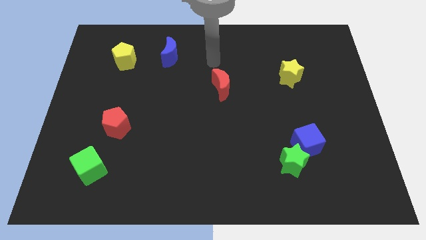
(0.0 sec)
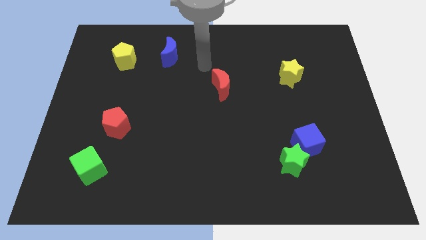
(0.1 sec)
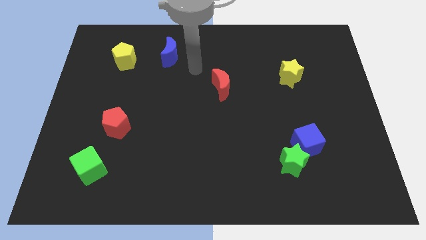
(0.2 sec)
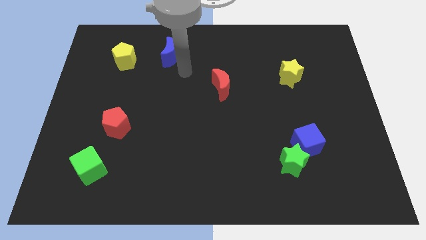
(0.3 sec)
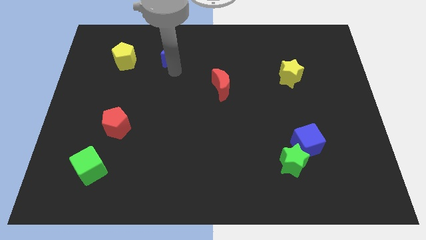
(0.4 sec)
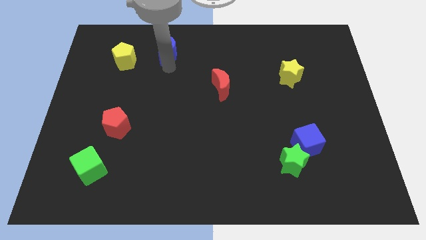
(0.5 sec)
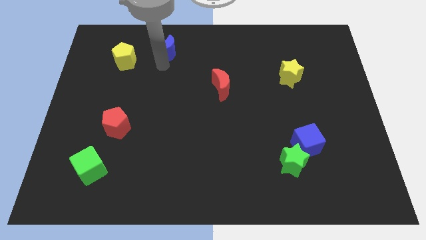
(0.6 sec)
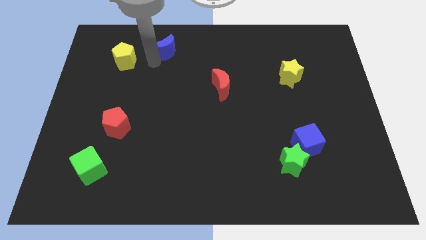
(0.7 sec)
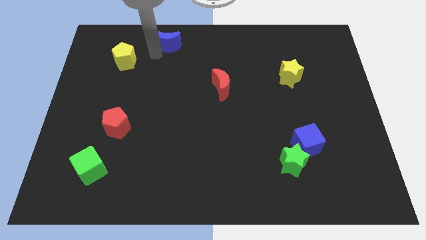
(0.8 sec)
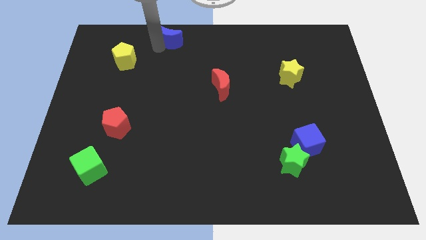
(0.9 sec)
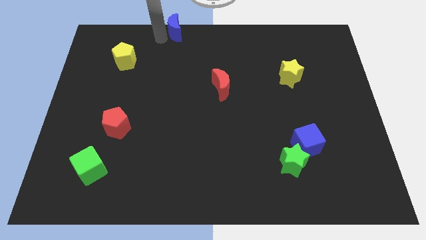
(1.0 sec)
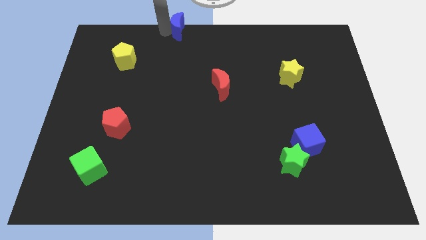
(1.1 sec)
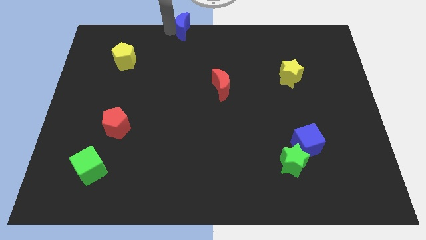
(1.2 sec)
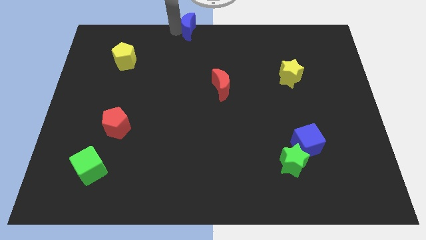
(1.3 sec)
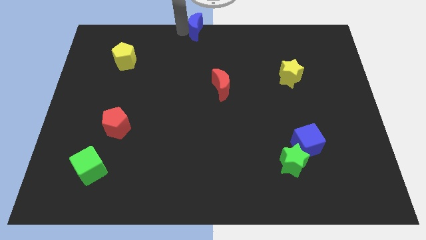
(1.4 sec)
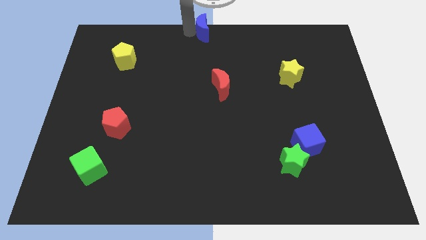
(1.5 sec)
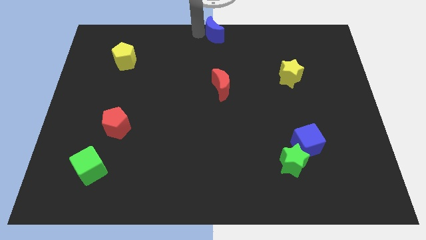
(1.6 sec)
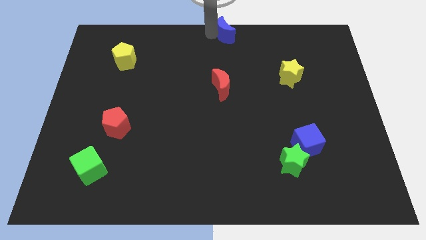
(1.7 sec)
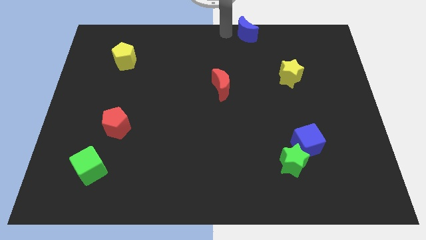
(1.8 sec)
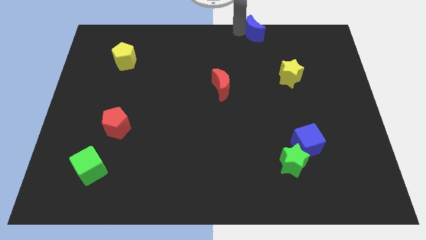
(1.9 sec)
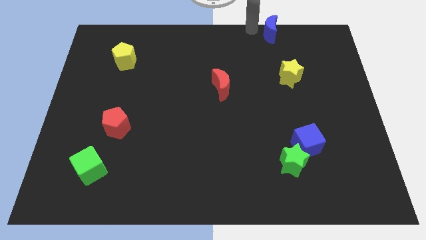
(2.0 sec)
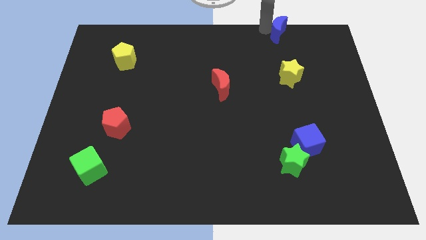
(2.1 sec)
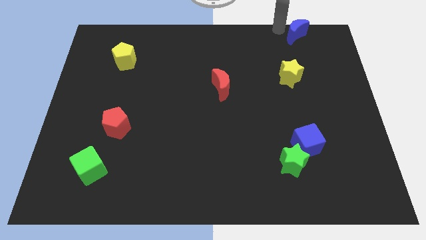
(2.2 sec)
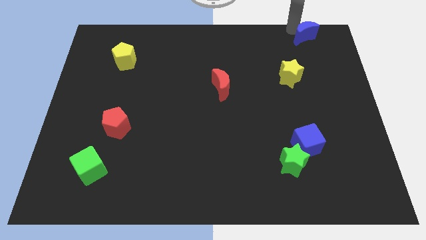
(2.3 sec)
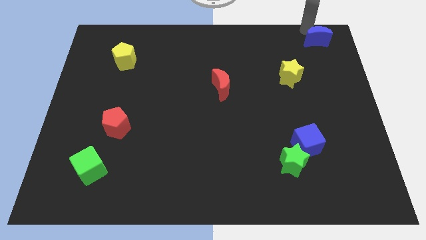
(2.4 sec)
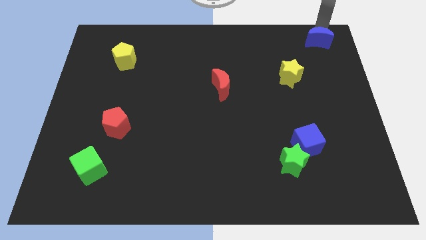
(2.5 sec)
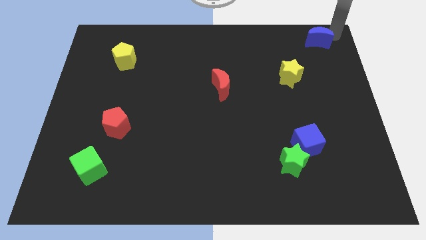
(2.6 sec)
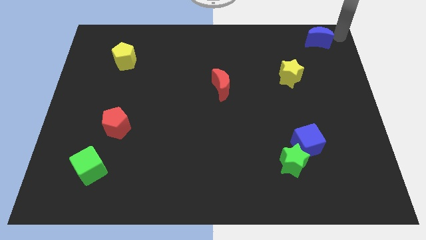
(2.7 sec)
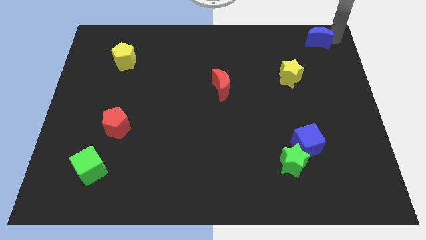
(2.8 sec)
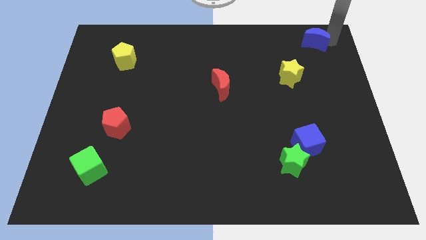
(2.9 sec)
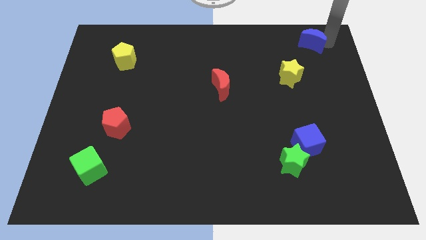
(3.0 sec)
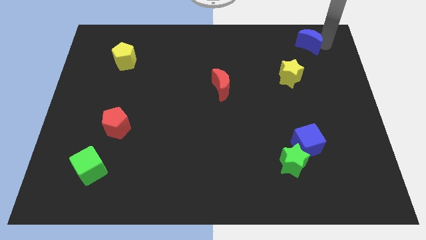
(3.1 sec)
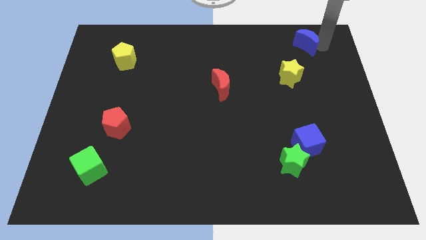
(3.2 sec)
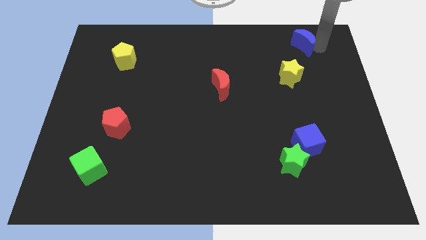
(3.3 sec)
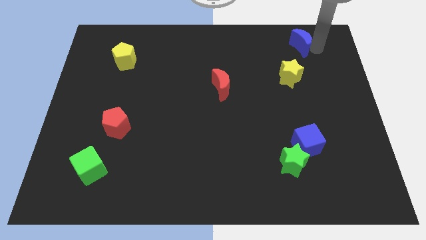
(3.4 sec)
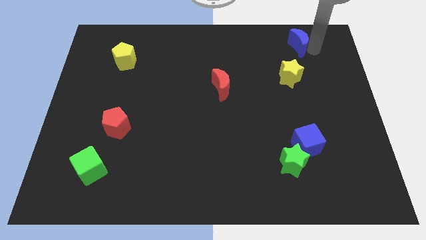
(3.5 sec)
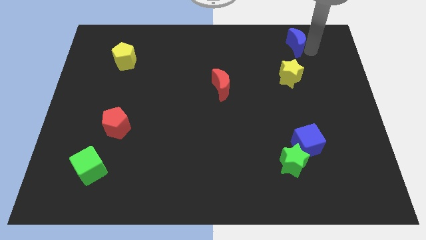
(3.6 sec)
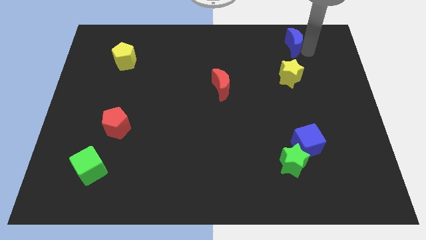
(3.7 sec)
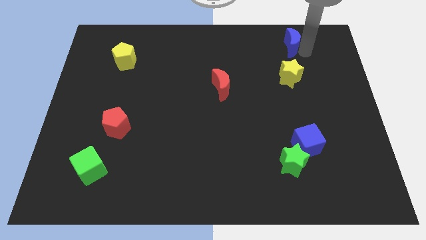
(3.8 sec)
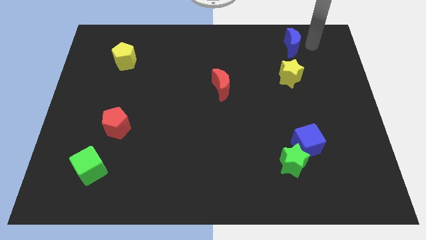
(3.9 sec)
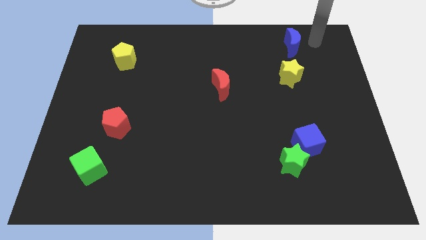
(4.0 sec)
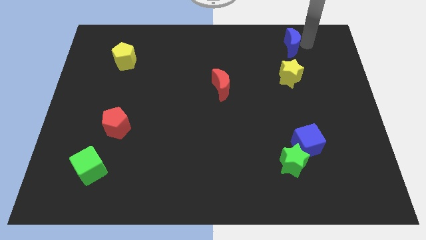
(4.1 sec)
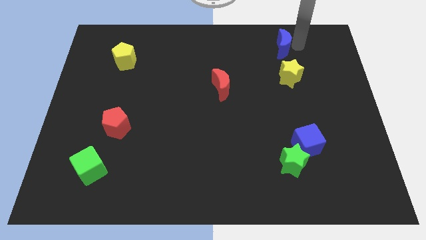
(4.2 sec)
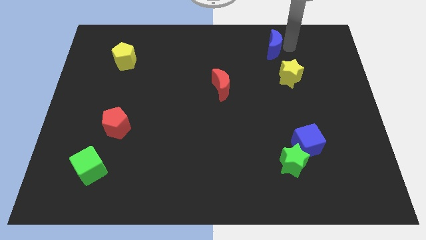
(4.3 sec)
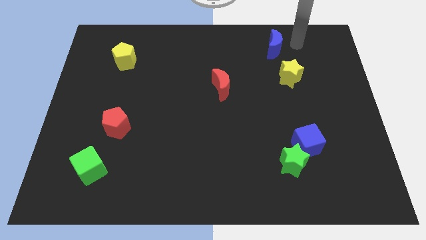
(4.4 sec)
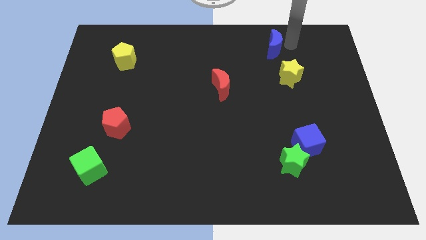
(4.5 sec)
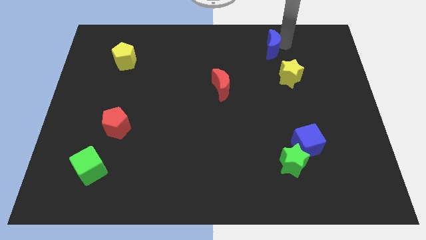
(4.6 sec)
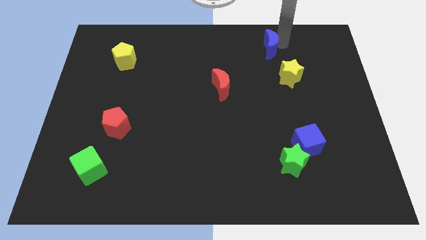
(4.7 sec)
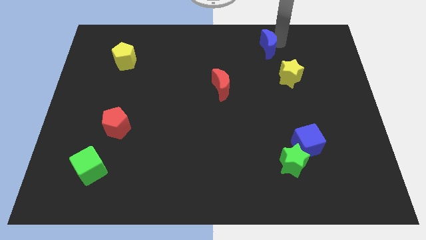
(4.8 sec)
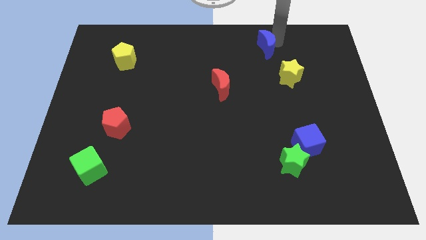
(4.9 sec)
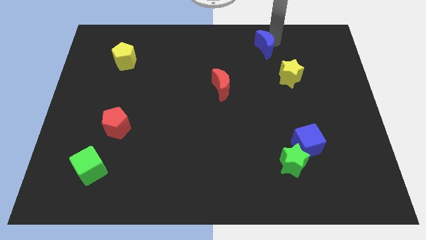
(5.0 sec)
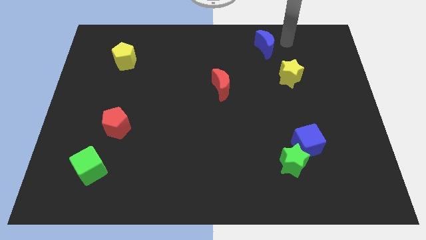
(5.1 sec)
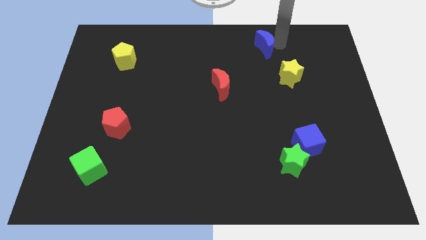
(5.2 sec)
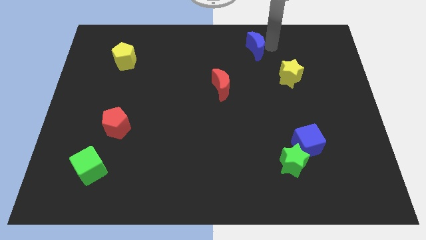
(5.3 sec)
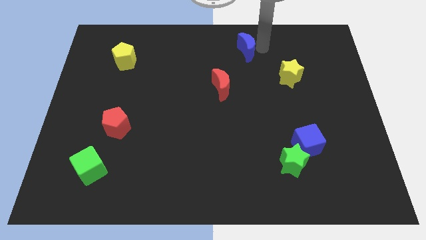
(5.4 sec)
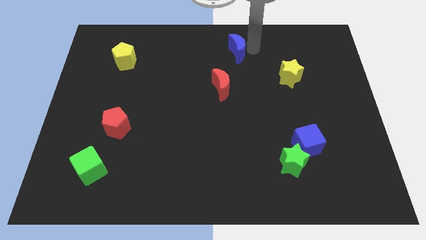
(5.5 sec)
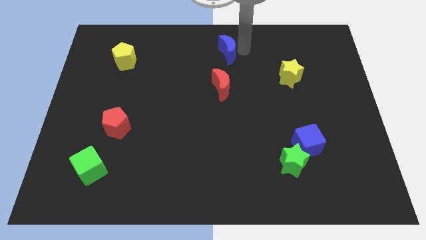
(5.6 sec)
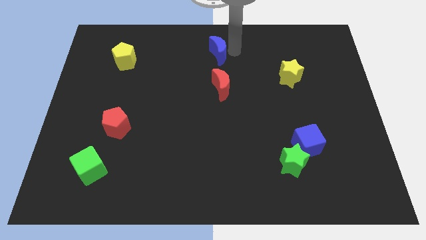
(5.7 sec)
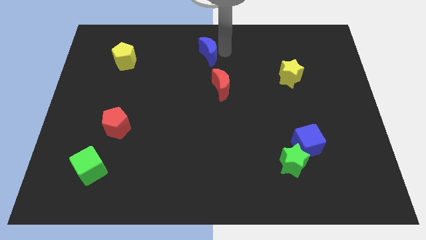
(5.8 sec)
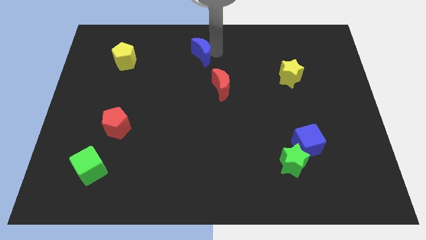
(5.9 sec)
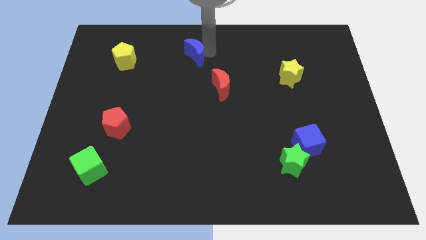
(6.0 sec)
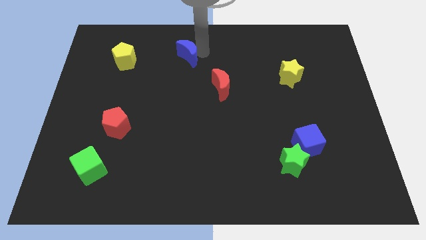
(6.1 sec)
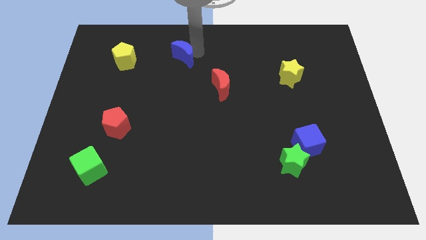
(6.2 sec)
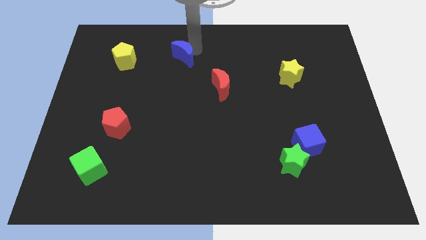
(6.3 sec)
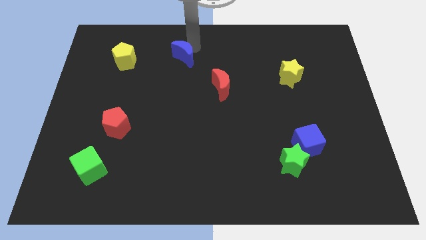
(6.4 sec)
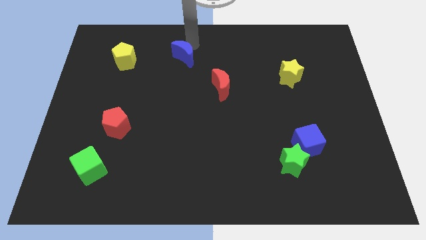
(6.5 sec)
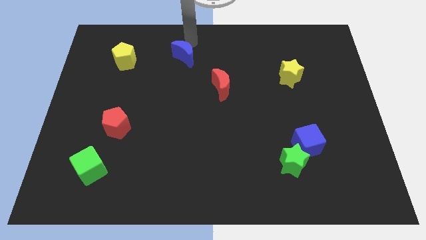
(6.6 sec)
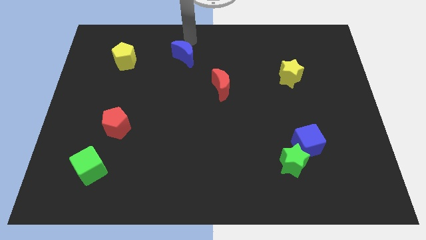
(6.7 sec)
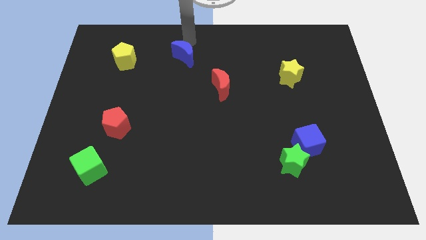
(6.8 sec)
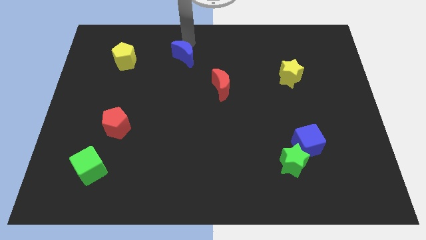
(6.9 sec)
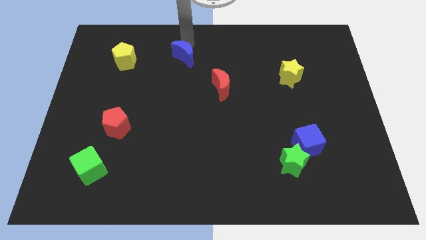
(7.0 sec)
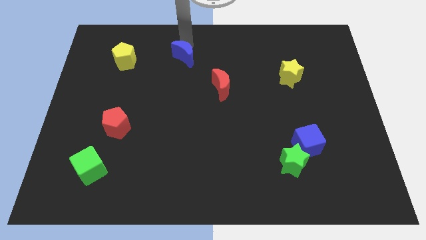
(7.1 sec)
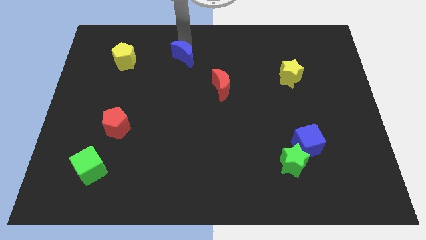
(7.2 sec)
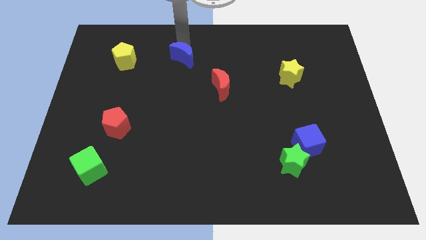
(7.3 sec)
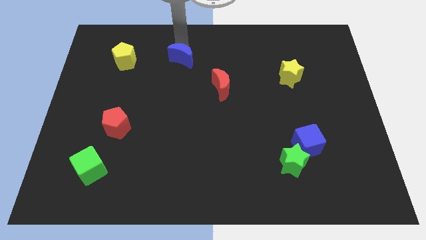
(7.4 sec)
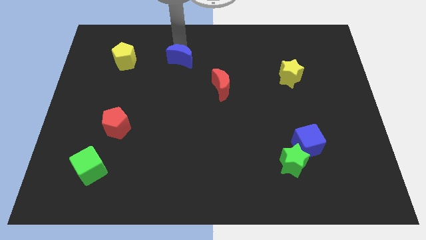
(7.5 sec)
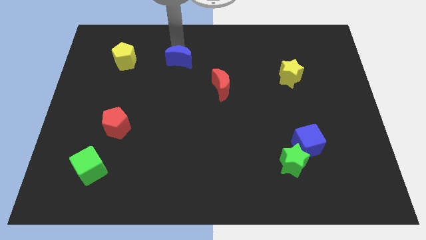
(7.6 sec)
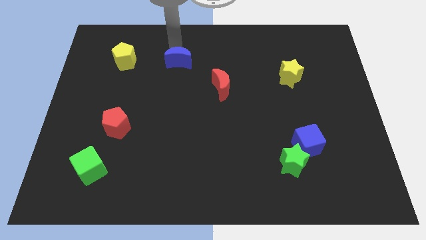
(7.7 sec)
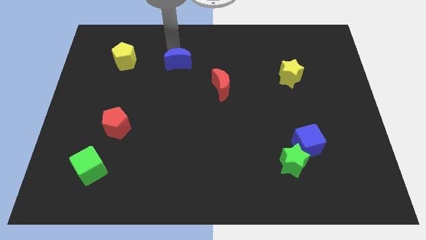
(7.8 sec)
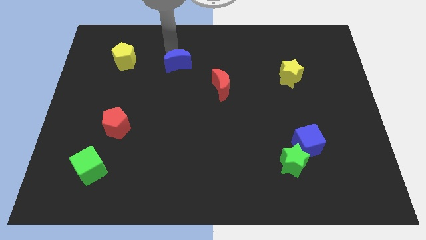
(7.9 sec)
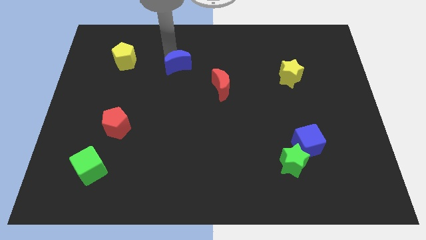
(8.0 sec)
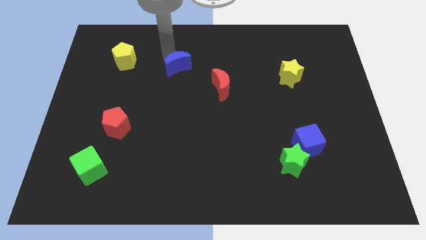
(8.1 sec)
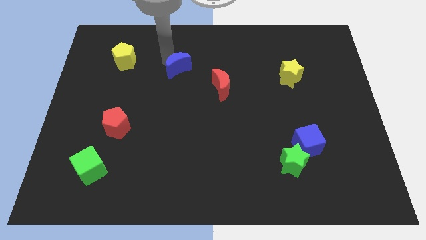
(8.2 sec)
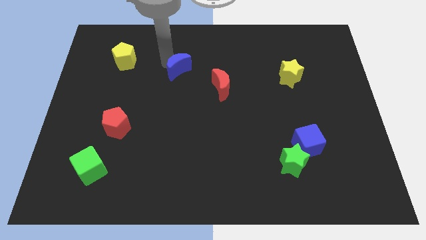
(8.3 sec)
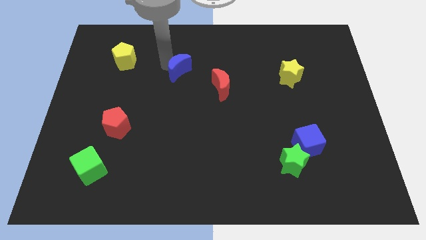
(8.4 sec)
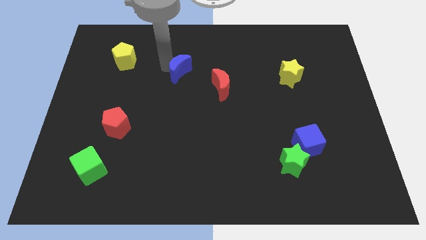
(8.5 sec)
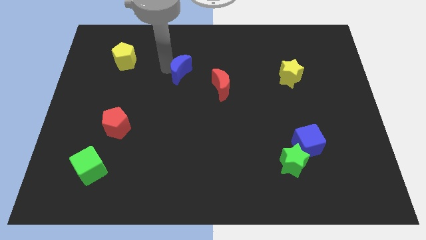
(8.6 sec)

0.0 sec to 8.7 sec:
move the blue moon to the center of the board
